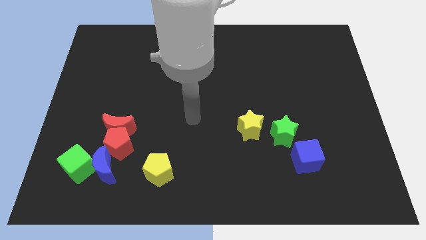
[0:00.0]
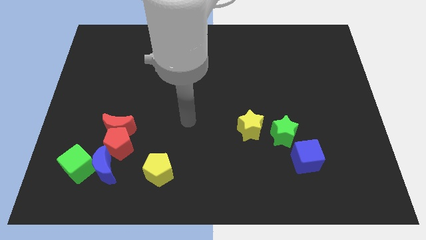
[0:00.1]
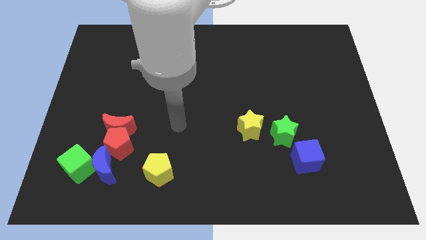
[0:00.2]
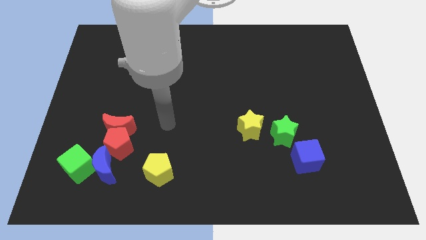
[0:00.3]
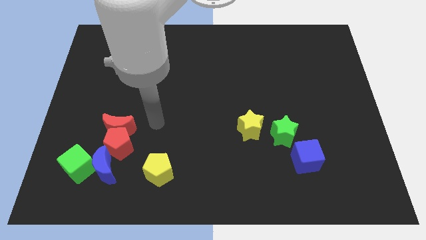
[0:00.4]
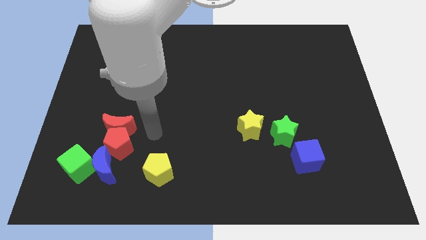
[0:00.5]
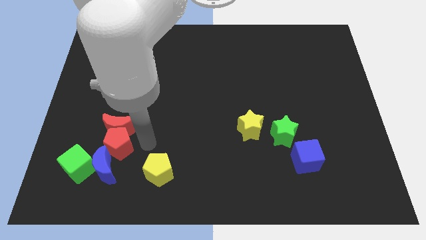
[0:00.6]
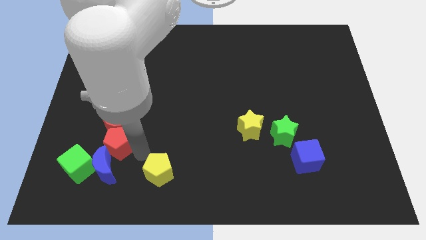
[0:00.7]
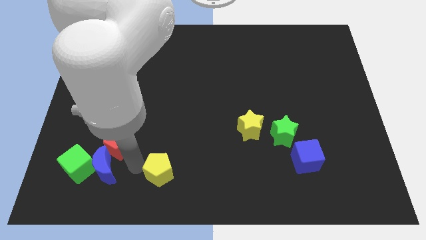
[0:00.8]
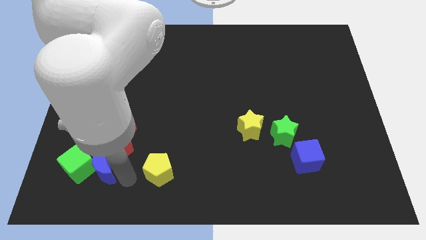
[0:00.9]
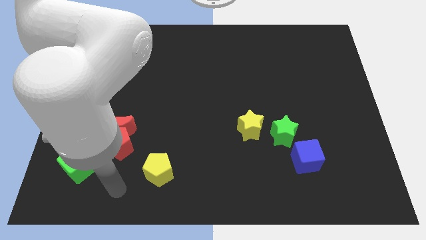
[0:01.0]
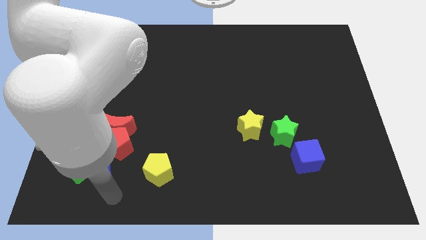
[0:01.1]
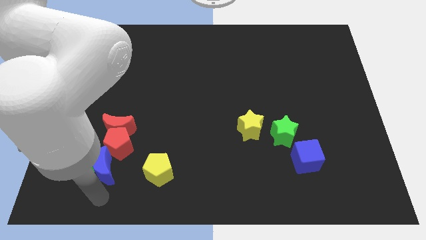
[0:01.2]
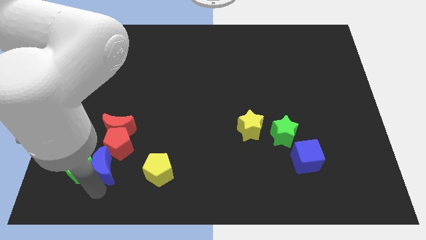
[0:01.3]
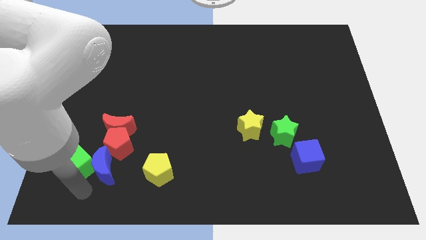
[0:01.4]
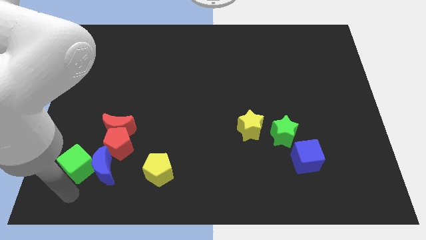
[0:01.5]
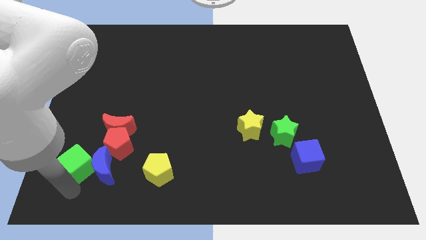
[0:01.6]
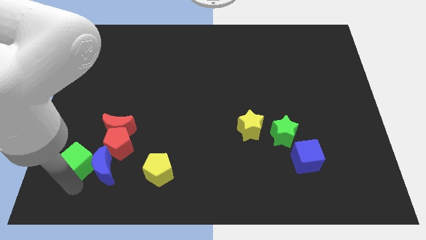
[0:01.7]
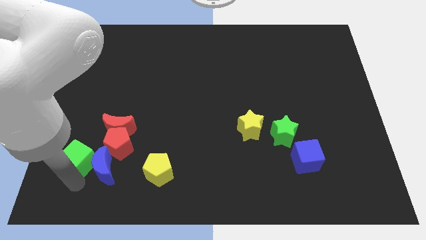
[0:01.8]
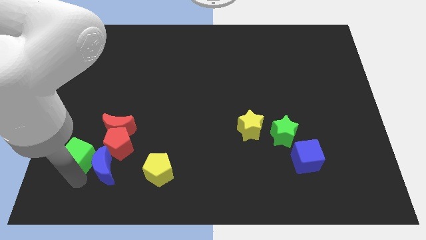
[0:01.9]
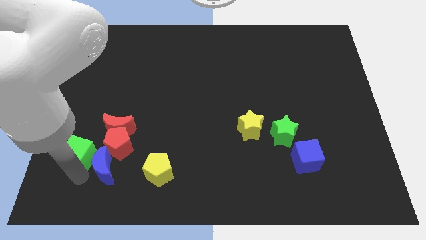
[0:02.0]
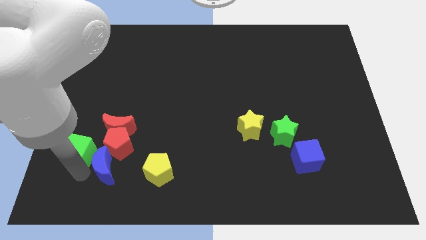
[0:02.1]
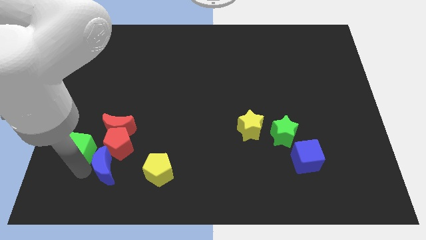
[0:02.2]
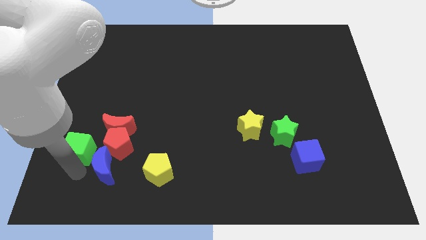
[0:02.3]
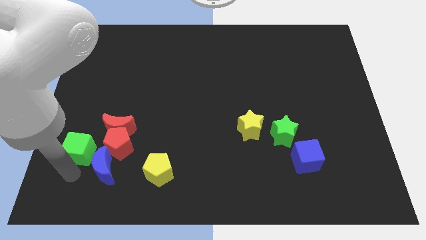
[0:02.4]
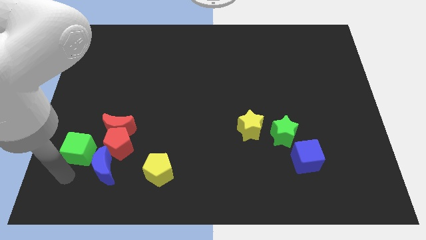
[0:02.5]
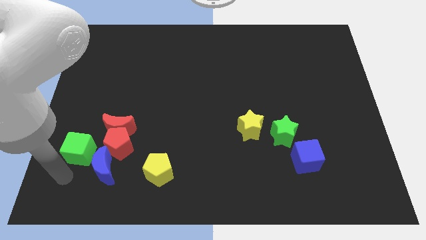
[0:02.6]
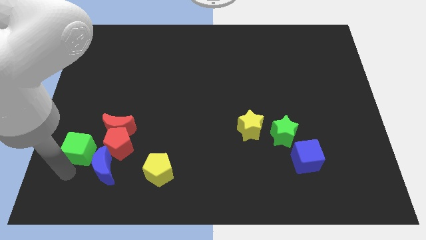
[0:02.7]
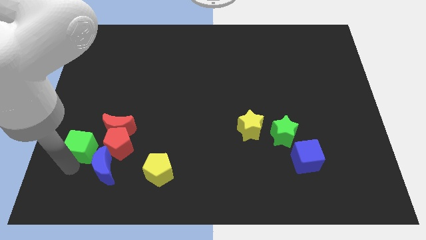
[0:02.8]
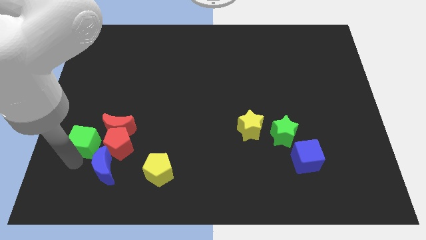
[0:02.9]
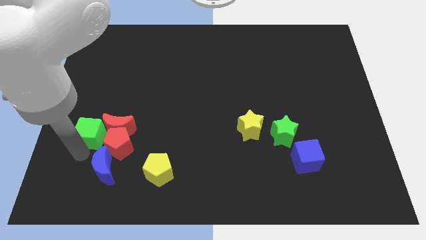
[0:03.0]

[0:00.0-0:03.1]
move the green cube up somewhat

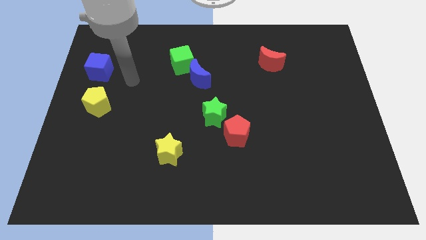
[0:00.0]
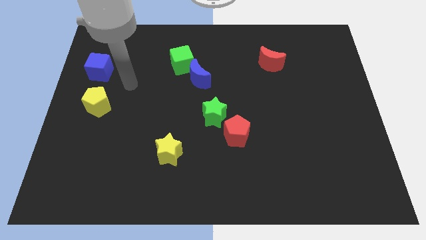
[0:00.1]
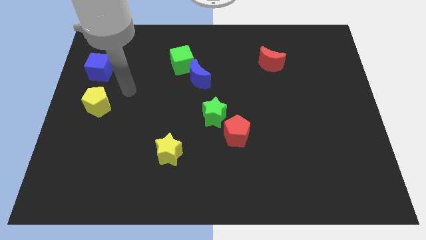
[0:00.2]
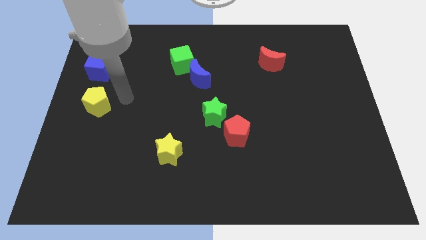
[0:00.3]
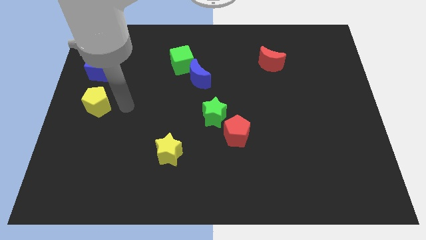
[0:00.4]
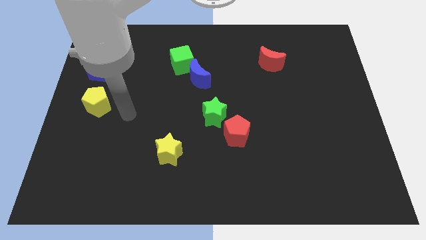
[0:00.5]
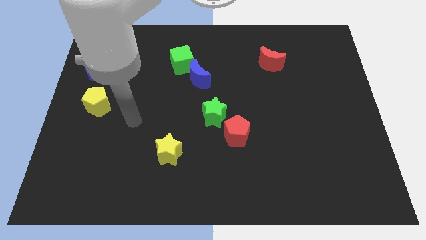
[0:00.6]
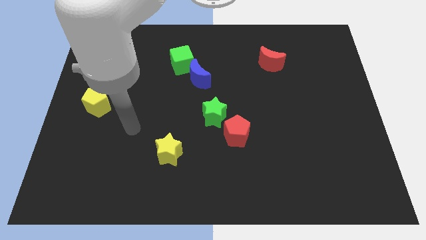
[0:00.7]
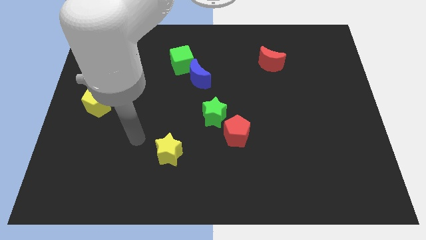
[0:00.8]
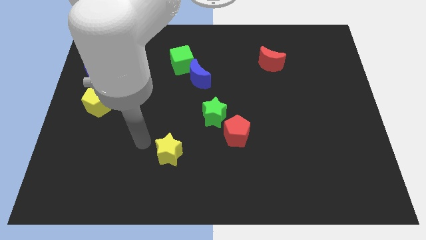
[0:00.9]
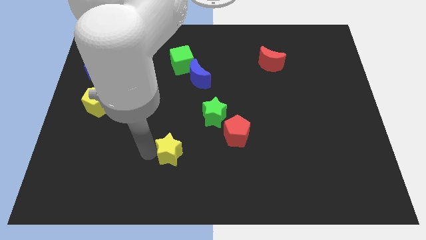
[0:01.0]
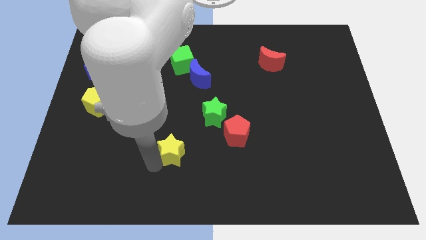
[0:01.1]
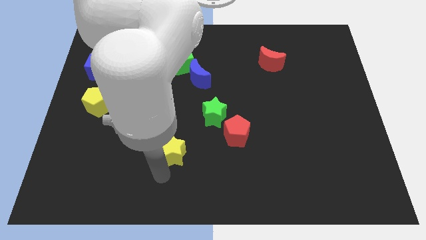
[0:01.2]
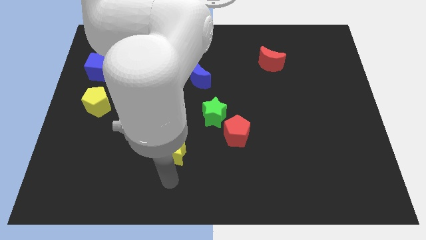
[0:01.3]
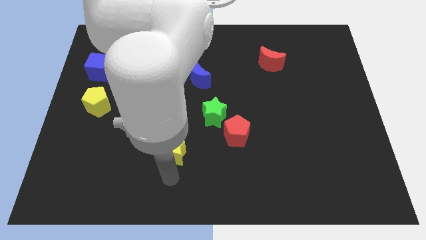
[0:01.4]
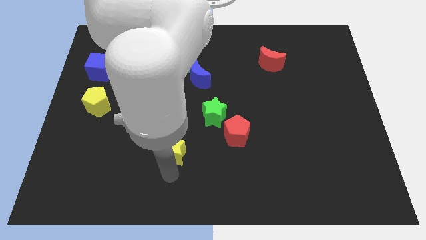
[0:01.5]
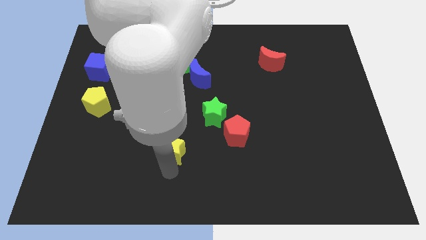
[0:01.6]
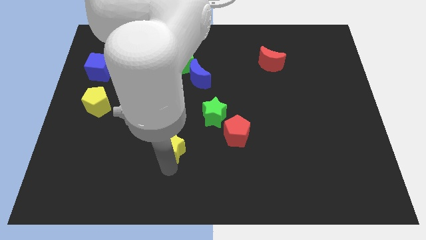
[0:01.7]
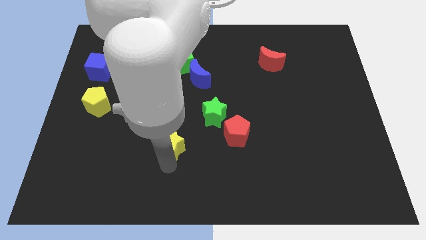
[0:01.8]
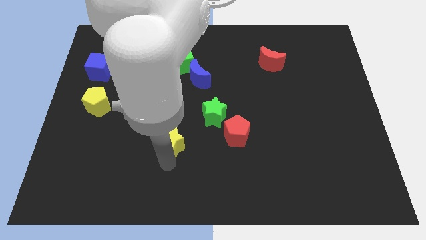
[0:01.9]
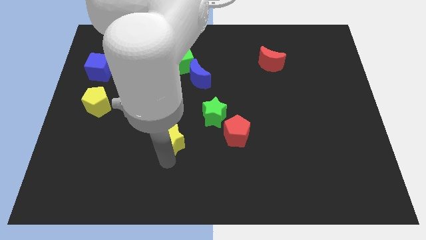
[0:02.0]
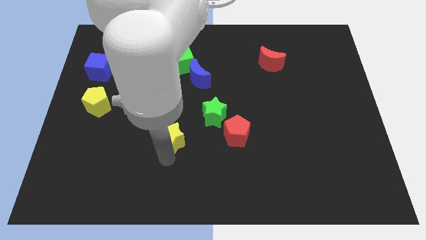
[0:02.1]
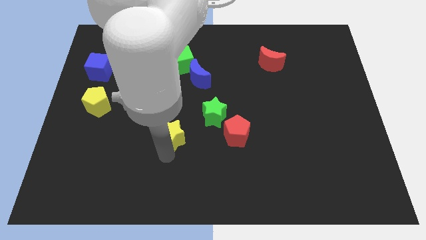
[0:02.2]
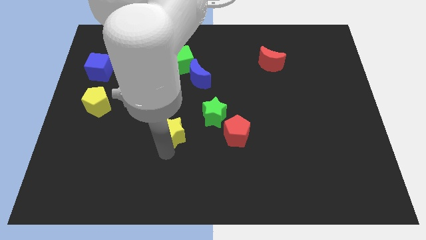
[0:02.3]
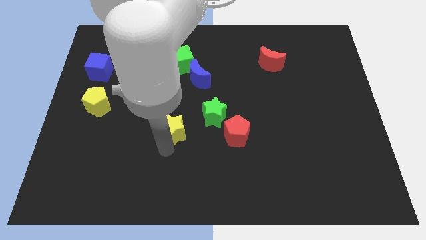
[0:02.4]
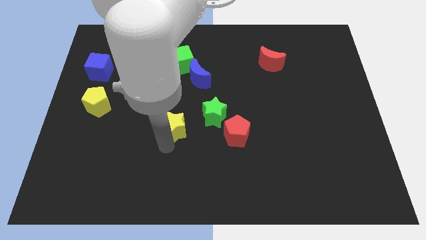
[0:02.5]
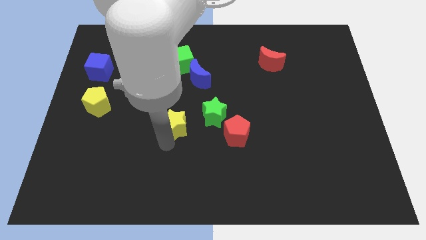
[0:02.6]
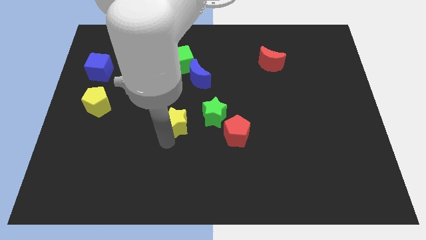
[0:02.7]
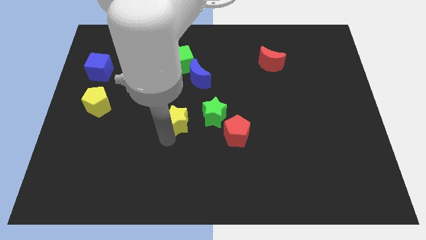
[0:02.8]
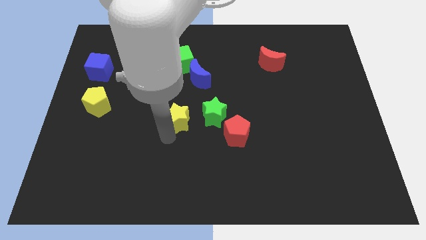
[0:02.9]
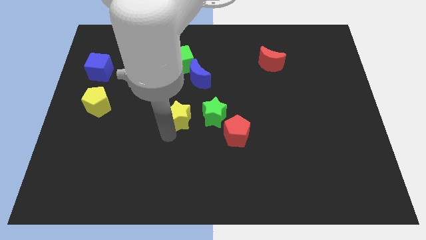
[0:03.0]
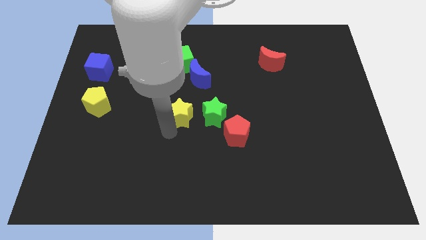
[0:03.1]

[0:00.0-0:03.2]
move the yellow star diagonally upwards and right somewhat

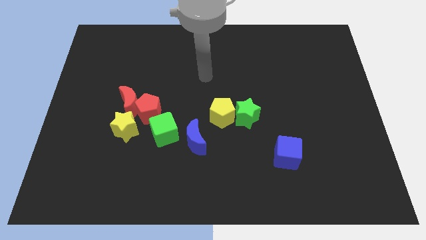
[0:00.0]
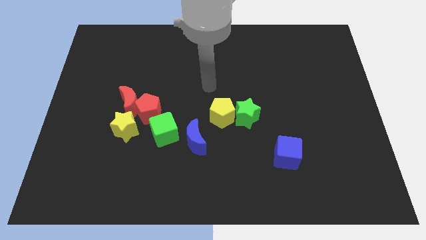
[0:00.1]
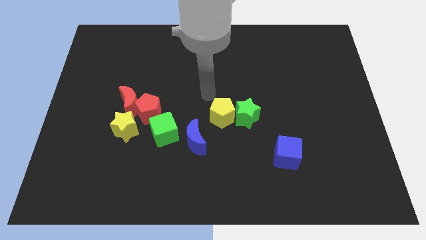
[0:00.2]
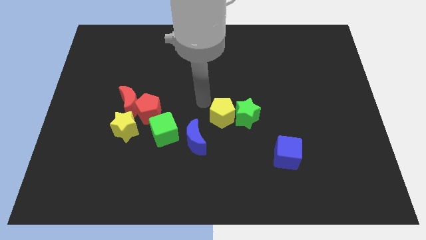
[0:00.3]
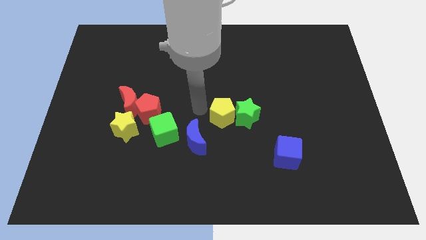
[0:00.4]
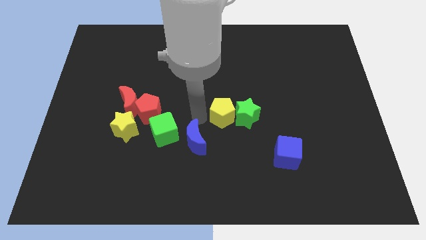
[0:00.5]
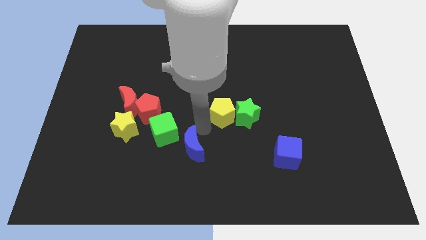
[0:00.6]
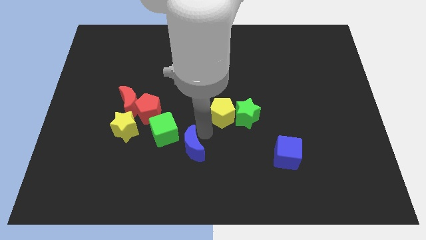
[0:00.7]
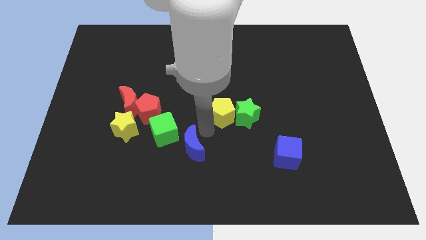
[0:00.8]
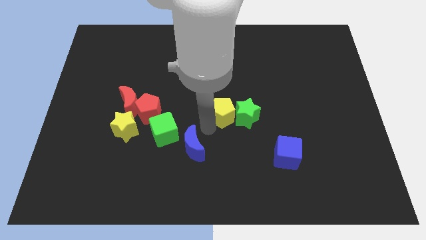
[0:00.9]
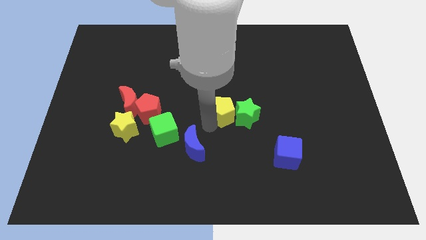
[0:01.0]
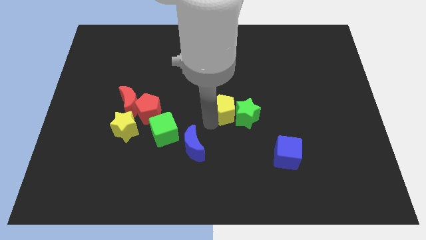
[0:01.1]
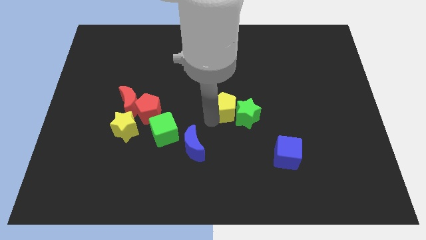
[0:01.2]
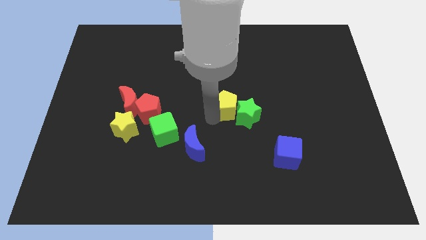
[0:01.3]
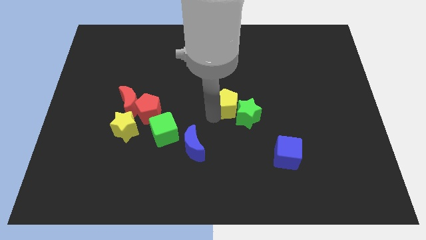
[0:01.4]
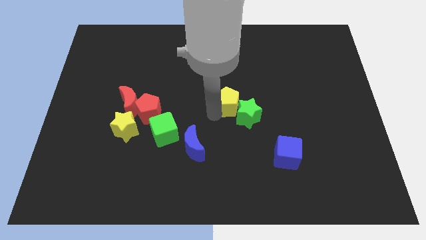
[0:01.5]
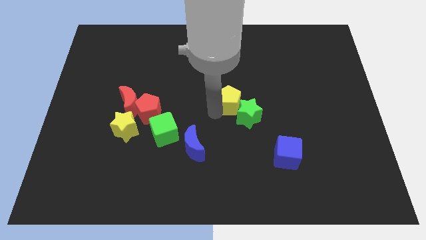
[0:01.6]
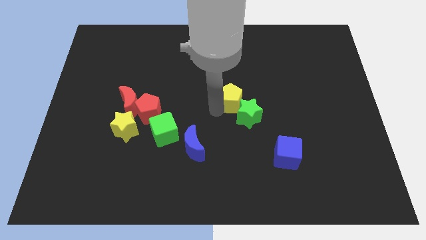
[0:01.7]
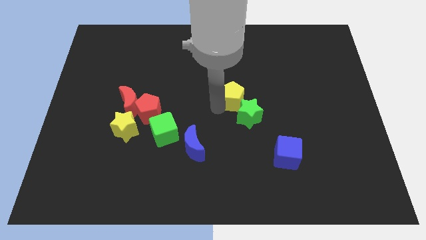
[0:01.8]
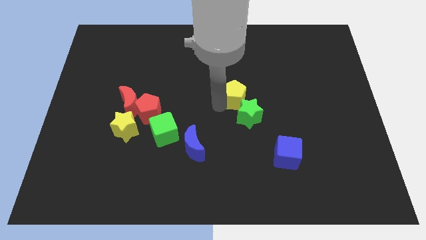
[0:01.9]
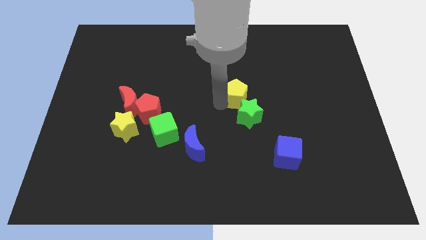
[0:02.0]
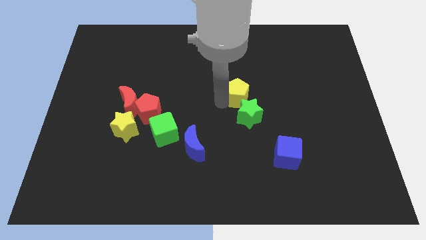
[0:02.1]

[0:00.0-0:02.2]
slightly move the yellow pentagon upwards and to the right

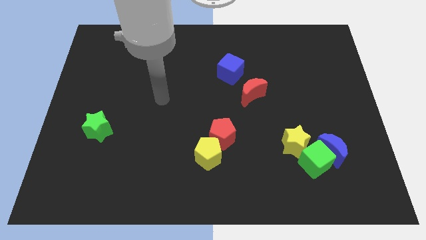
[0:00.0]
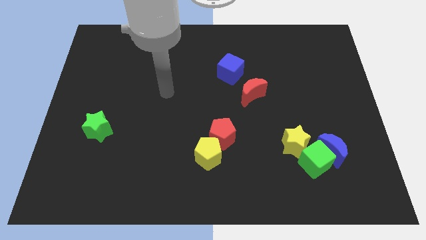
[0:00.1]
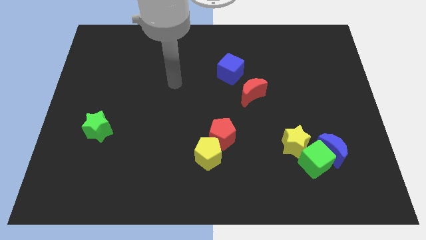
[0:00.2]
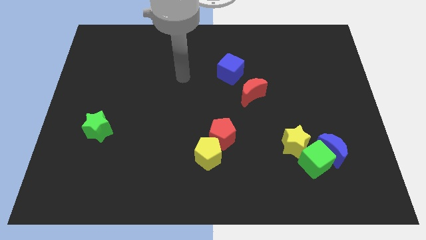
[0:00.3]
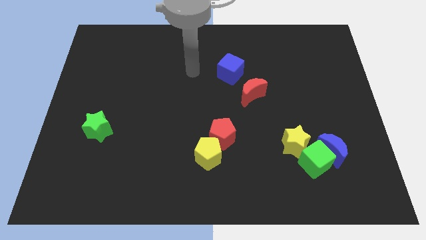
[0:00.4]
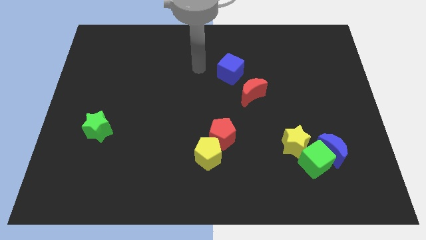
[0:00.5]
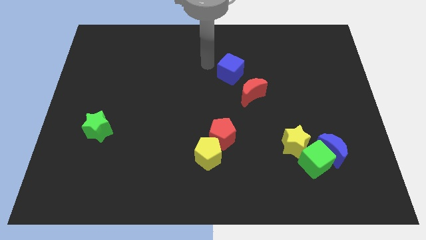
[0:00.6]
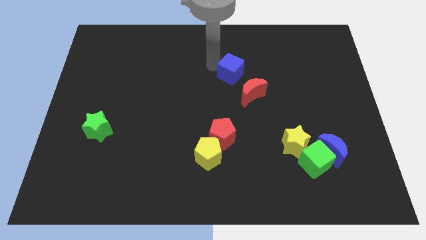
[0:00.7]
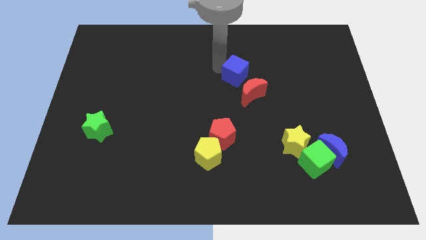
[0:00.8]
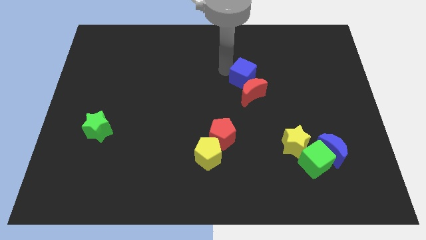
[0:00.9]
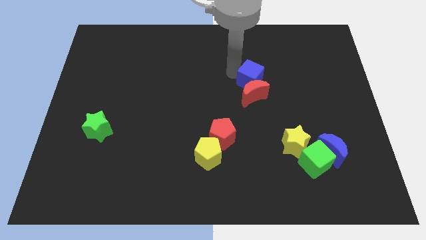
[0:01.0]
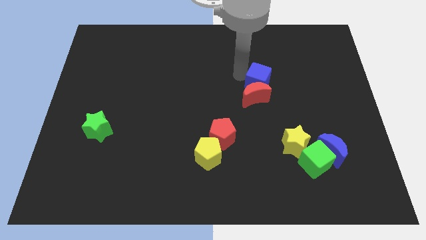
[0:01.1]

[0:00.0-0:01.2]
slightly move the blue cube downwards and to the right diagonally
